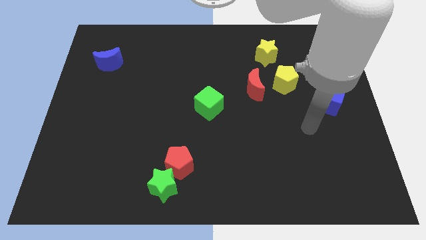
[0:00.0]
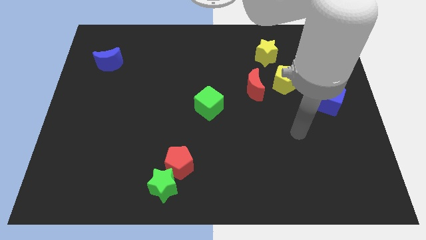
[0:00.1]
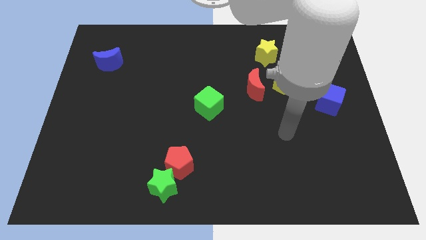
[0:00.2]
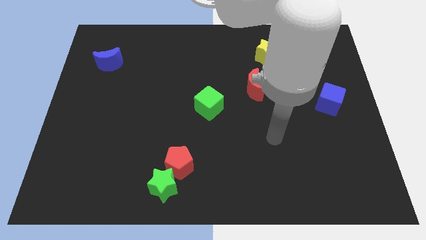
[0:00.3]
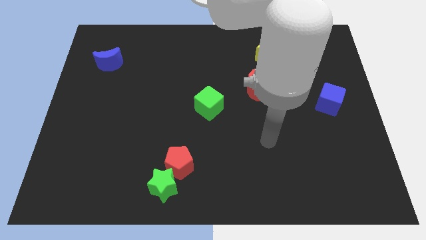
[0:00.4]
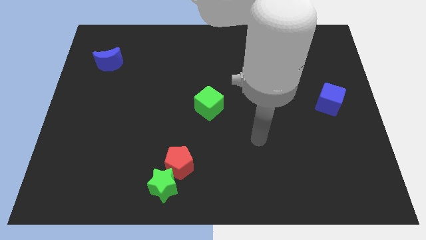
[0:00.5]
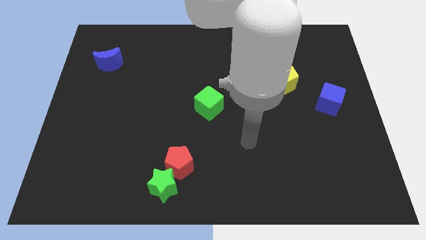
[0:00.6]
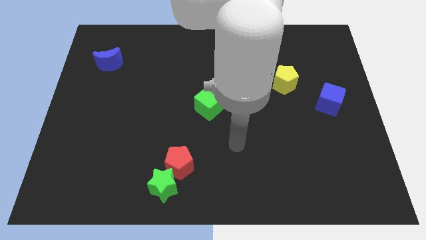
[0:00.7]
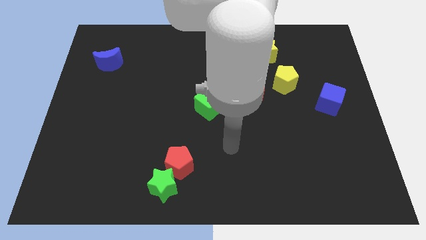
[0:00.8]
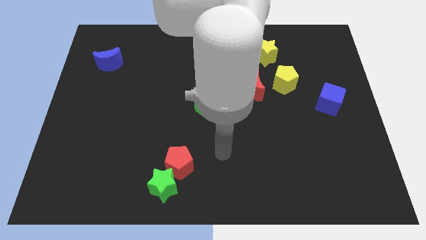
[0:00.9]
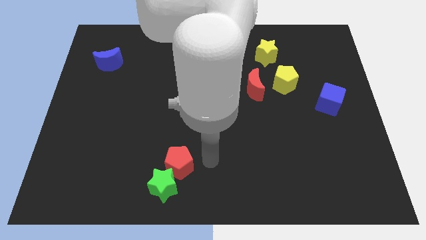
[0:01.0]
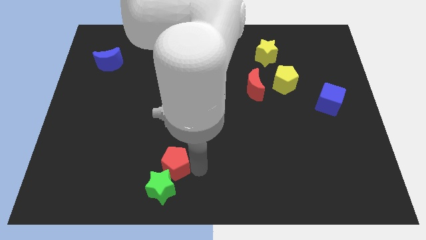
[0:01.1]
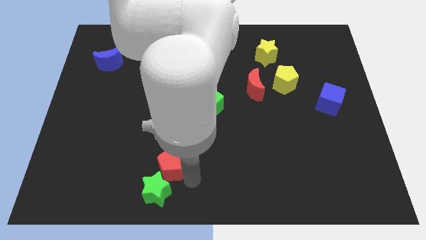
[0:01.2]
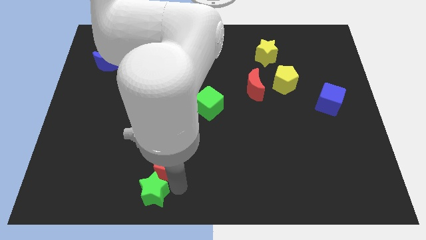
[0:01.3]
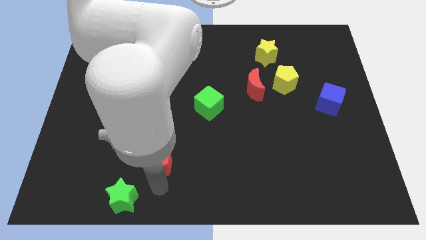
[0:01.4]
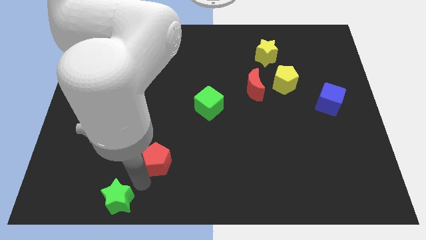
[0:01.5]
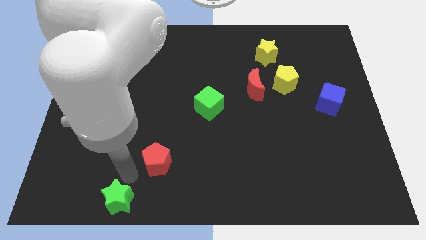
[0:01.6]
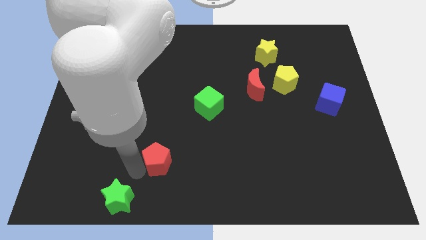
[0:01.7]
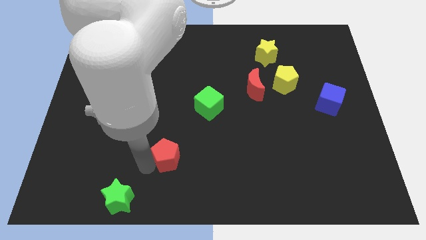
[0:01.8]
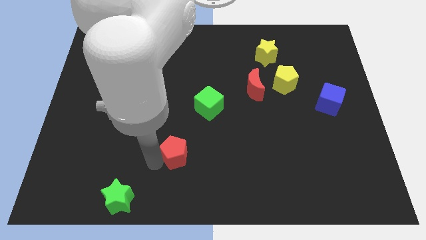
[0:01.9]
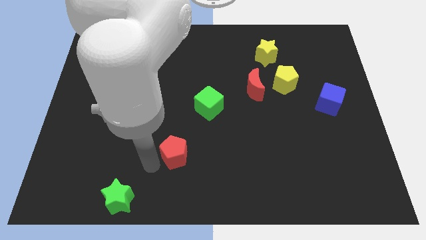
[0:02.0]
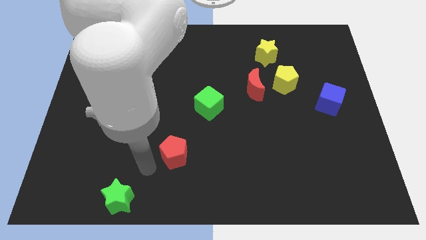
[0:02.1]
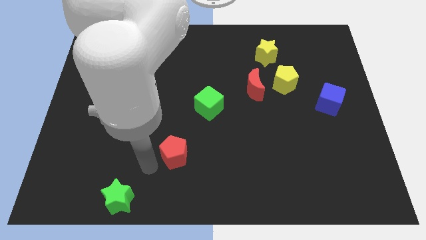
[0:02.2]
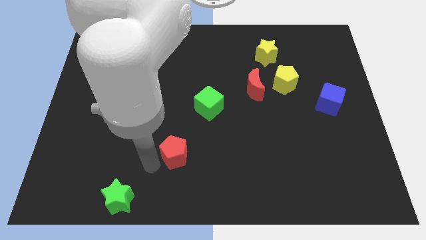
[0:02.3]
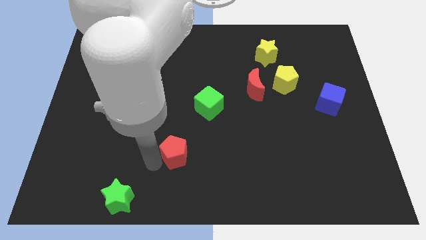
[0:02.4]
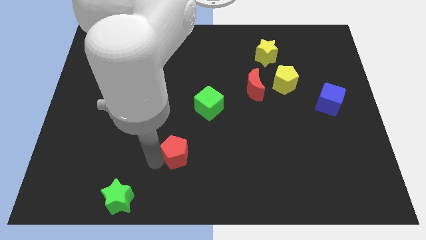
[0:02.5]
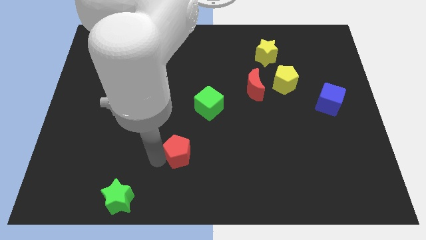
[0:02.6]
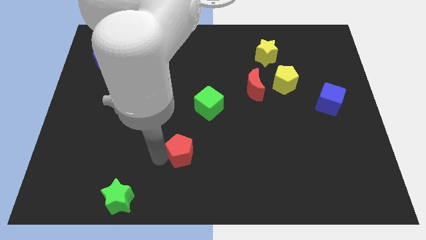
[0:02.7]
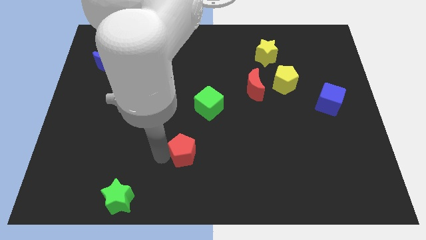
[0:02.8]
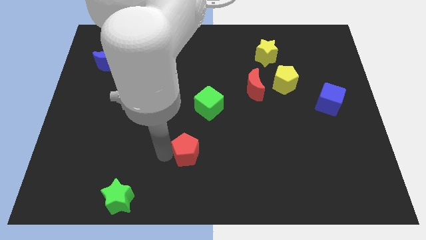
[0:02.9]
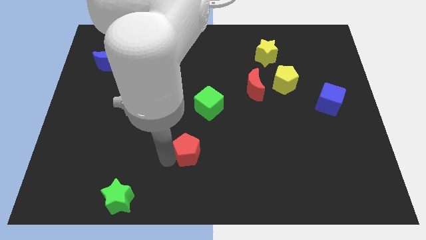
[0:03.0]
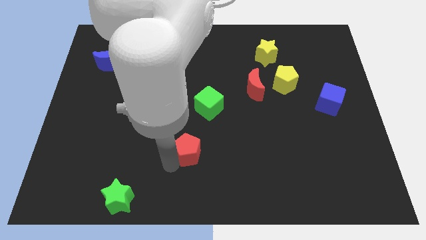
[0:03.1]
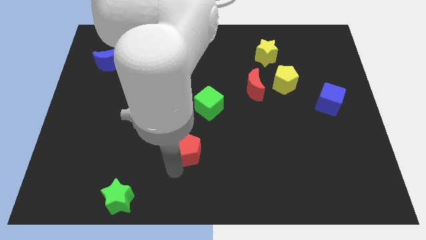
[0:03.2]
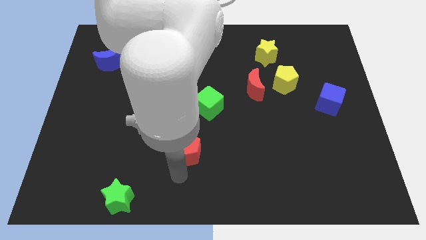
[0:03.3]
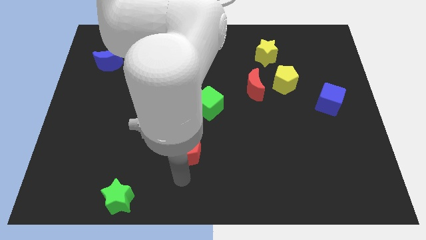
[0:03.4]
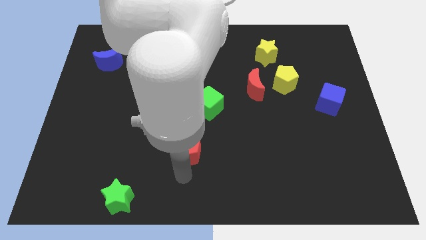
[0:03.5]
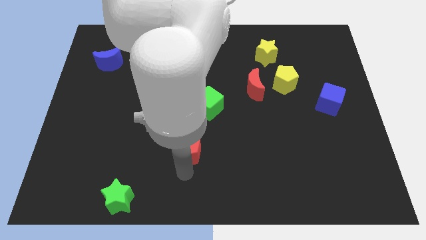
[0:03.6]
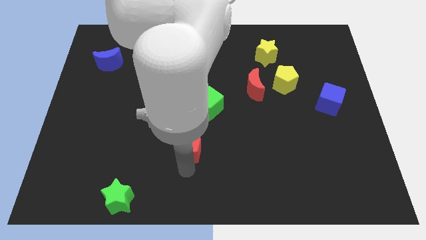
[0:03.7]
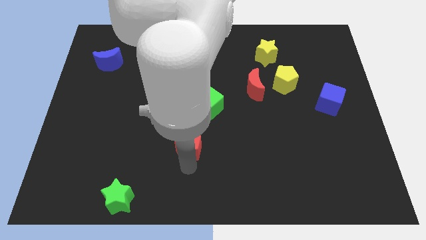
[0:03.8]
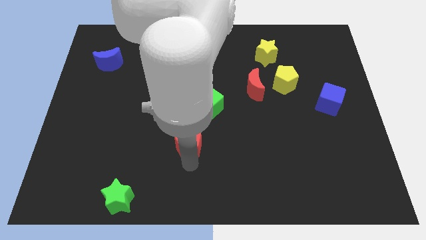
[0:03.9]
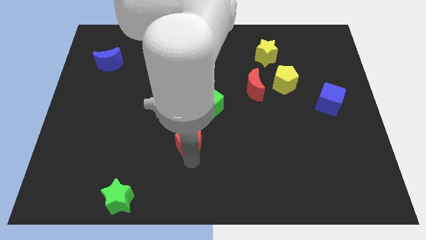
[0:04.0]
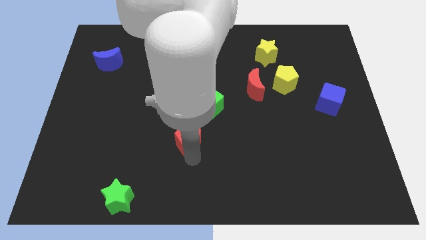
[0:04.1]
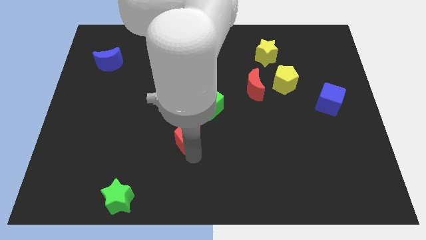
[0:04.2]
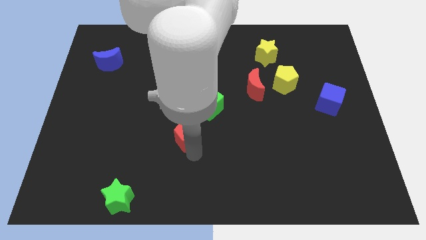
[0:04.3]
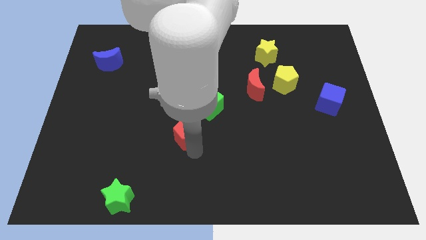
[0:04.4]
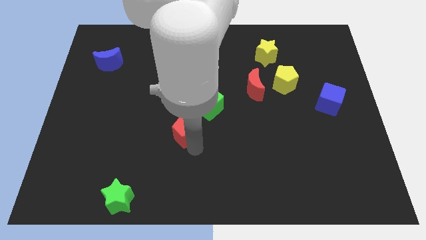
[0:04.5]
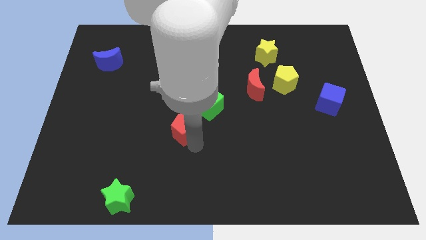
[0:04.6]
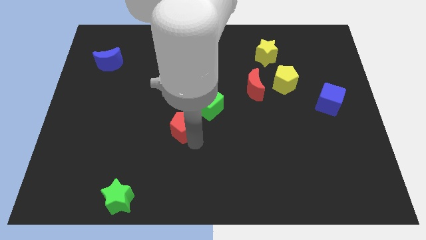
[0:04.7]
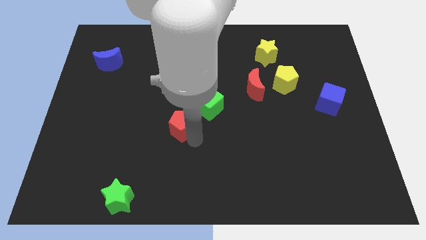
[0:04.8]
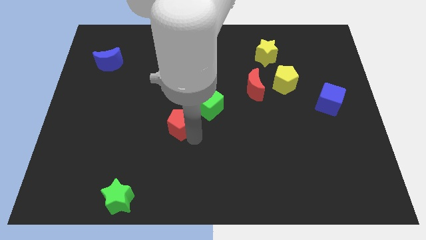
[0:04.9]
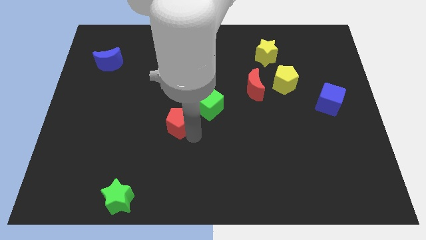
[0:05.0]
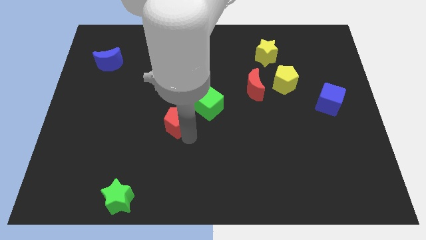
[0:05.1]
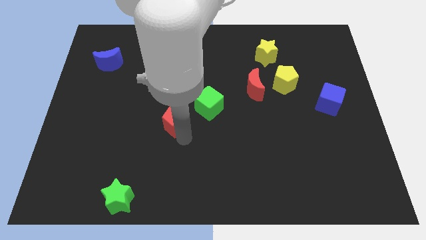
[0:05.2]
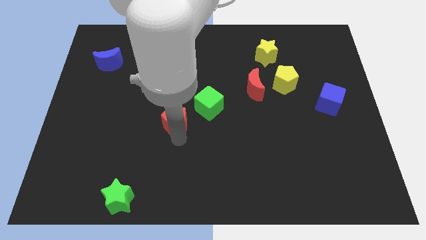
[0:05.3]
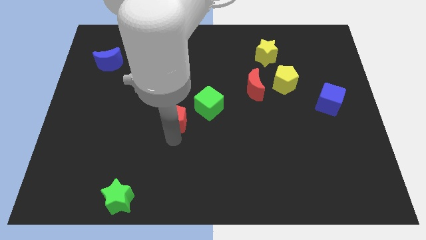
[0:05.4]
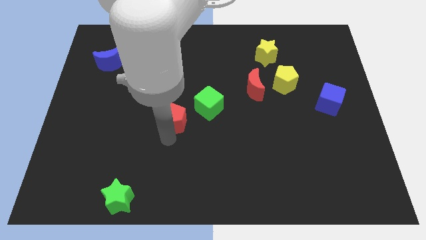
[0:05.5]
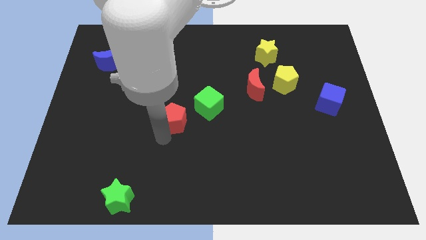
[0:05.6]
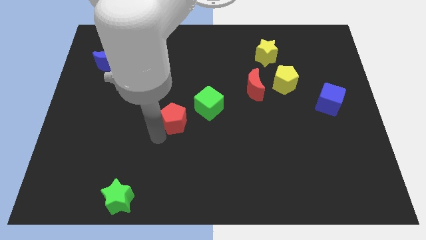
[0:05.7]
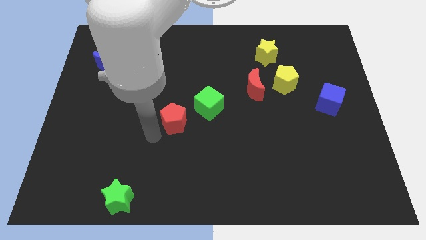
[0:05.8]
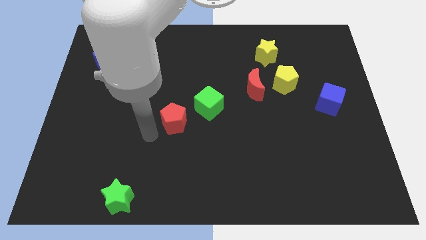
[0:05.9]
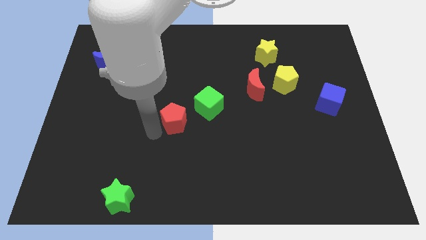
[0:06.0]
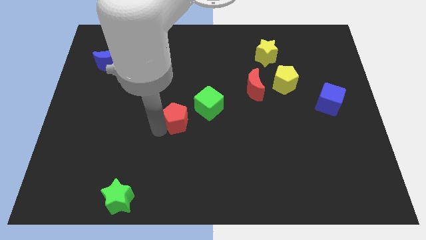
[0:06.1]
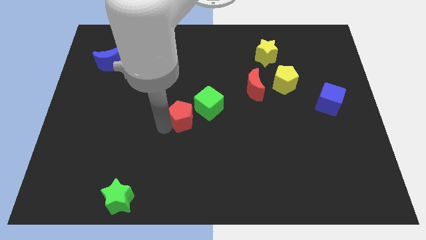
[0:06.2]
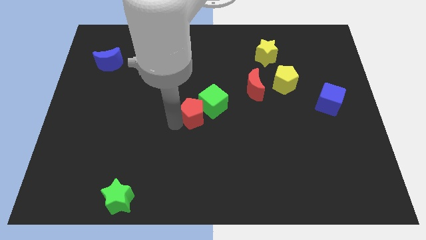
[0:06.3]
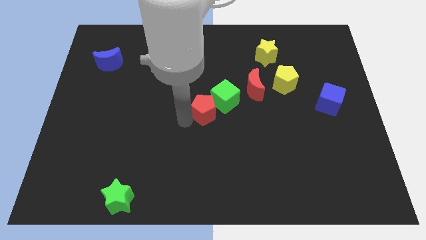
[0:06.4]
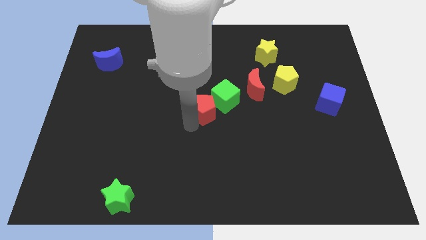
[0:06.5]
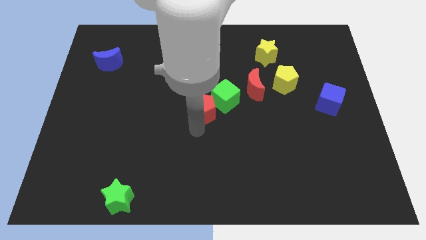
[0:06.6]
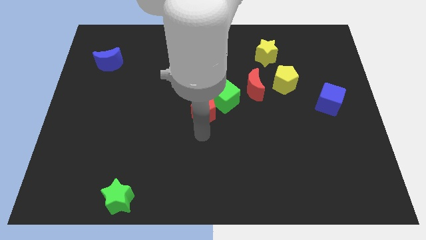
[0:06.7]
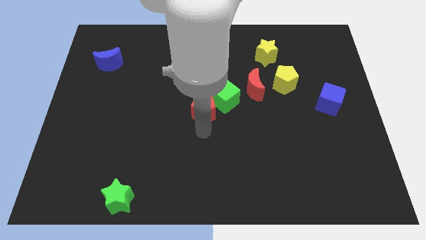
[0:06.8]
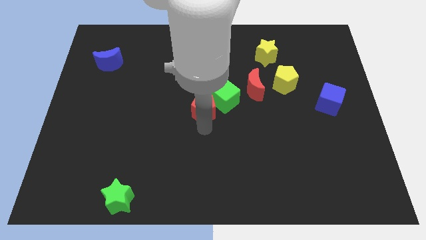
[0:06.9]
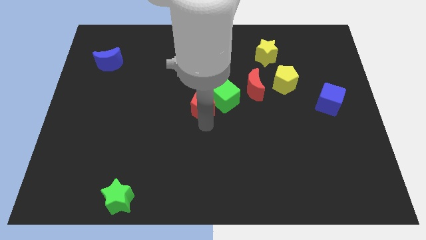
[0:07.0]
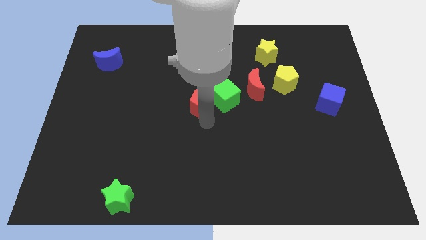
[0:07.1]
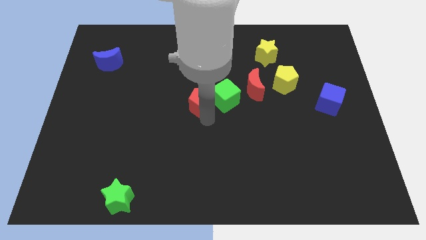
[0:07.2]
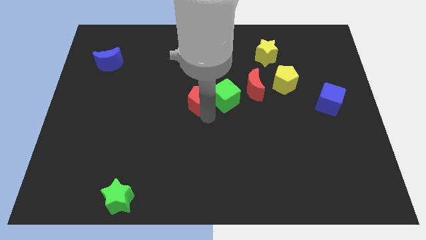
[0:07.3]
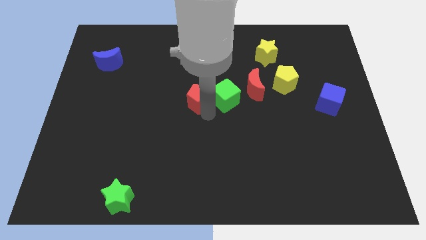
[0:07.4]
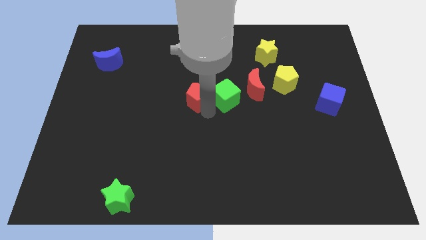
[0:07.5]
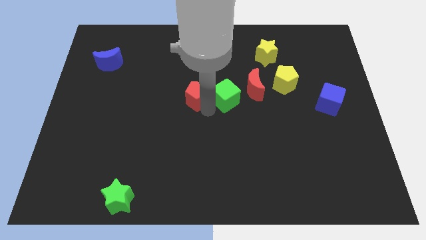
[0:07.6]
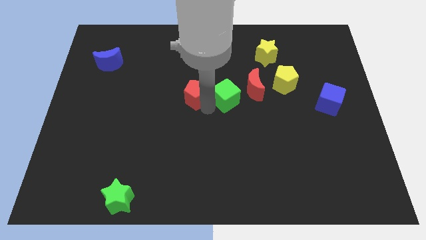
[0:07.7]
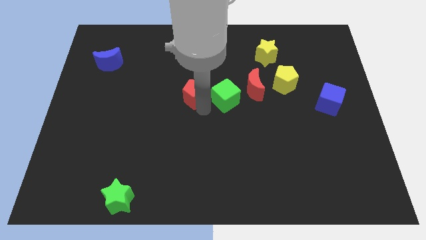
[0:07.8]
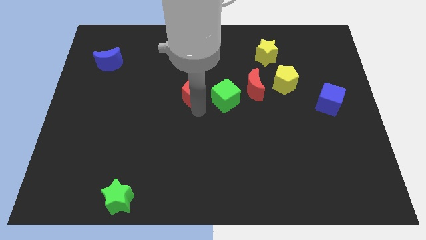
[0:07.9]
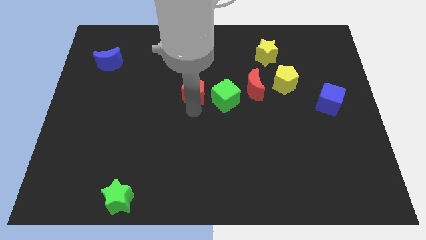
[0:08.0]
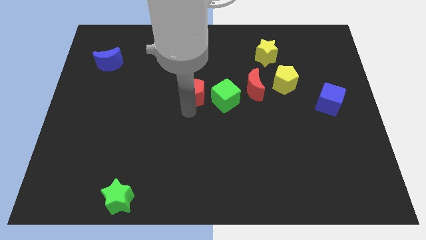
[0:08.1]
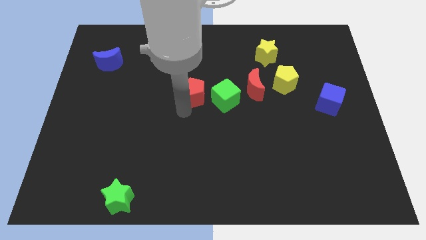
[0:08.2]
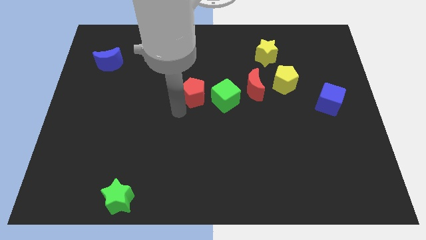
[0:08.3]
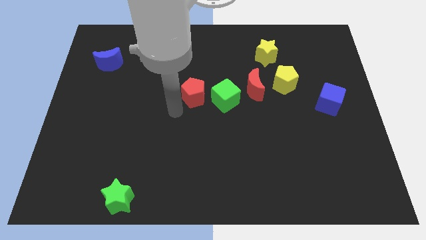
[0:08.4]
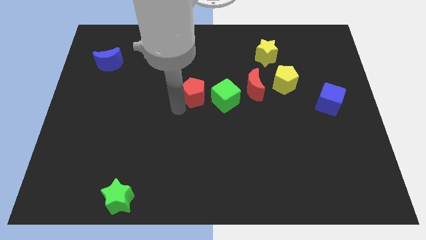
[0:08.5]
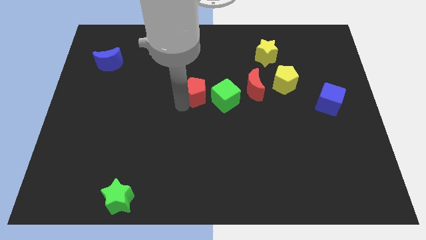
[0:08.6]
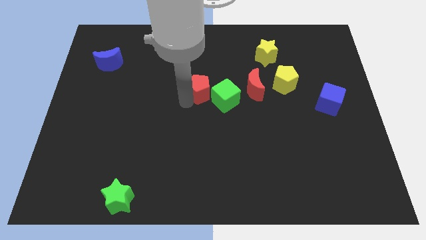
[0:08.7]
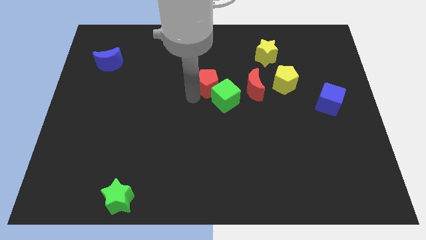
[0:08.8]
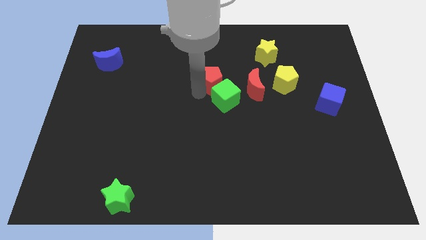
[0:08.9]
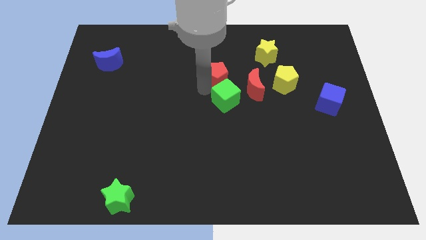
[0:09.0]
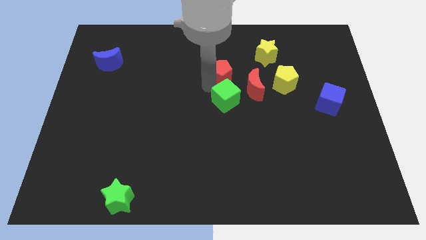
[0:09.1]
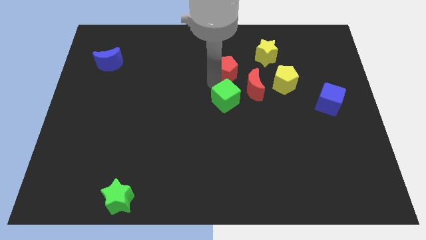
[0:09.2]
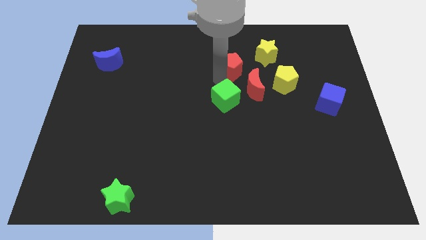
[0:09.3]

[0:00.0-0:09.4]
slide the red pentagon to the left side of the yellow star
